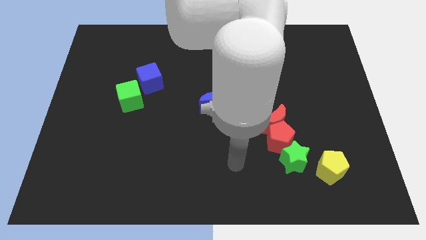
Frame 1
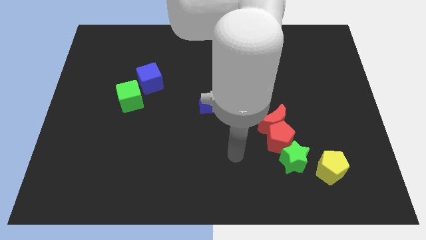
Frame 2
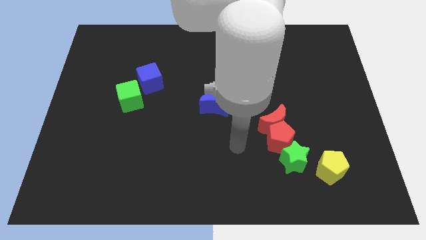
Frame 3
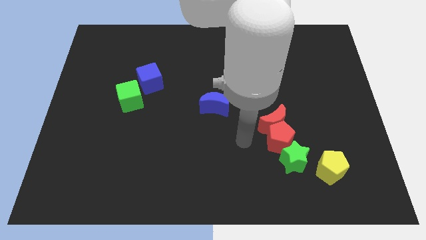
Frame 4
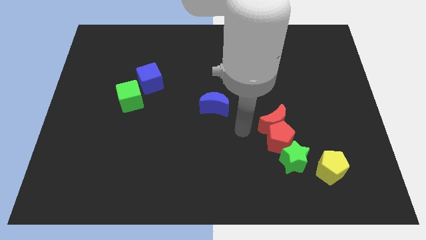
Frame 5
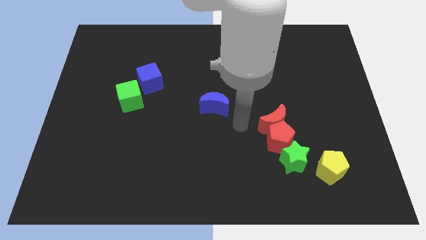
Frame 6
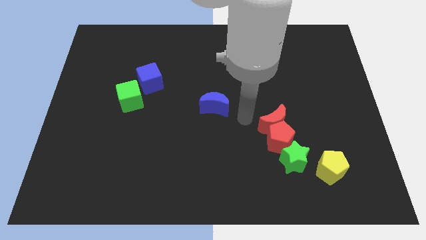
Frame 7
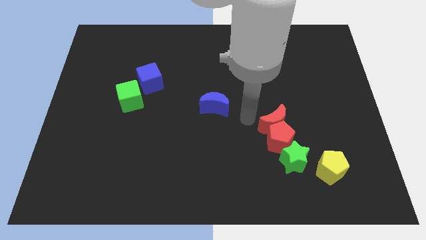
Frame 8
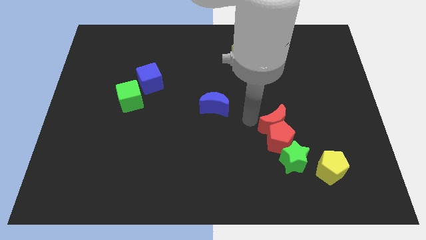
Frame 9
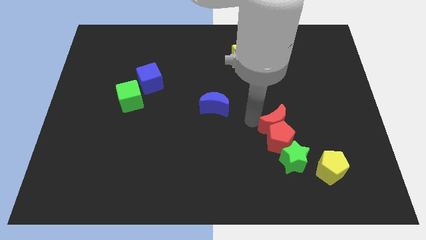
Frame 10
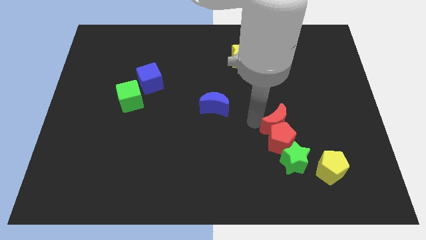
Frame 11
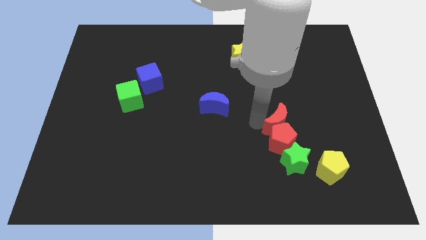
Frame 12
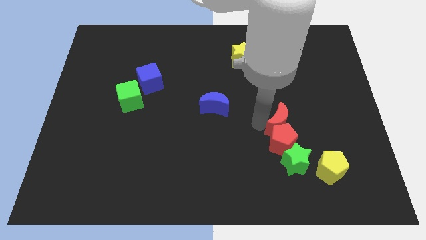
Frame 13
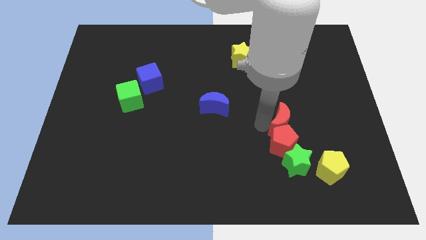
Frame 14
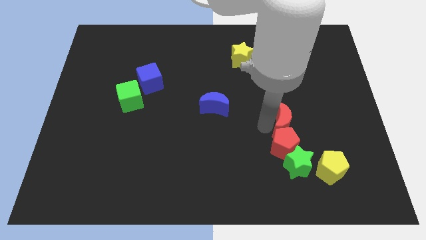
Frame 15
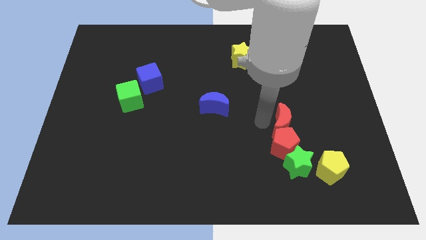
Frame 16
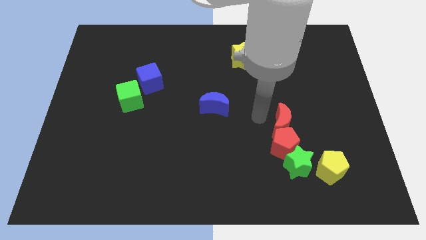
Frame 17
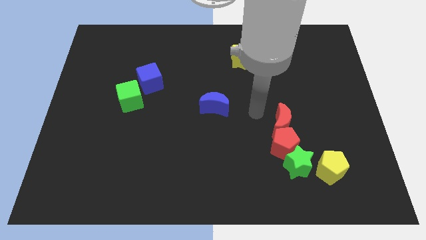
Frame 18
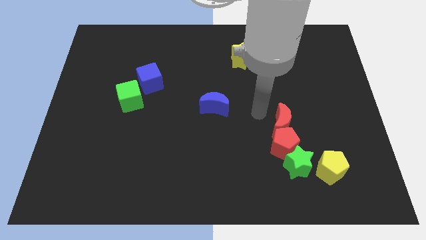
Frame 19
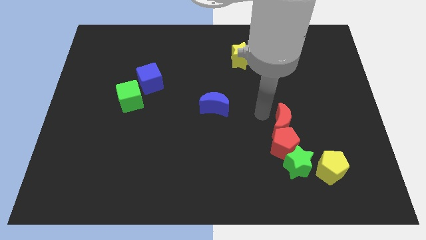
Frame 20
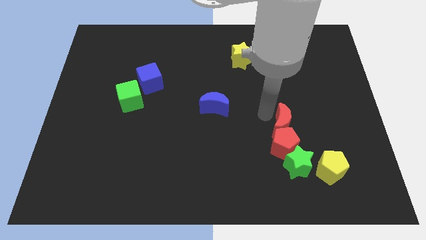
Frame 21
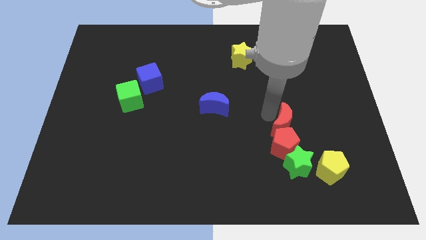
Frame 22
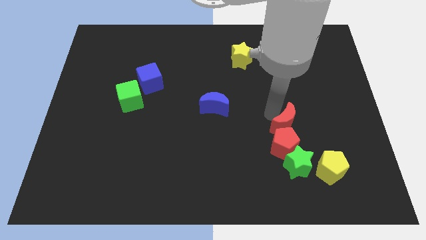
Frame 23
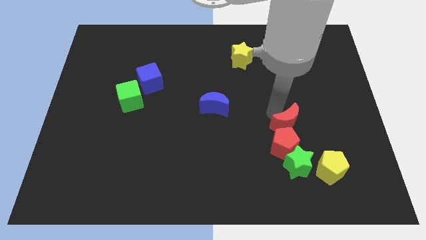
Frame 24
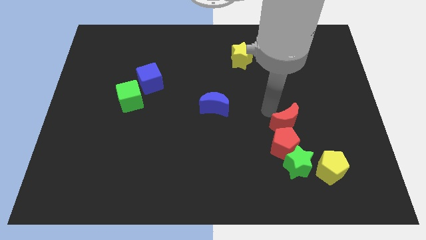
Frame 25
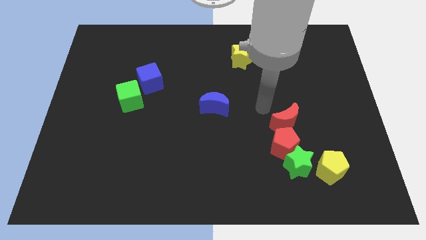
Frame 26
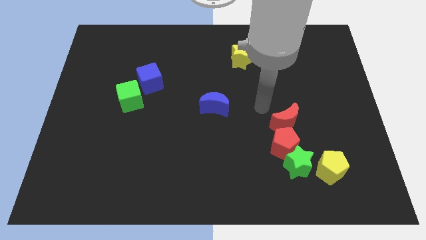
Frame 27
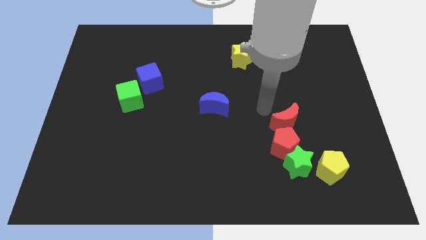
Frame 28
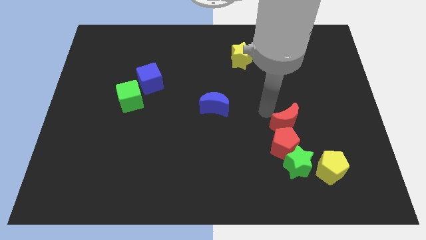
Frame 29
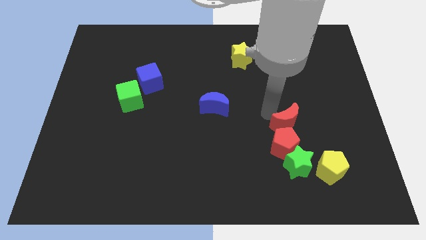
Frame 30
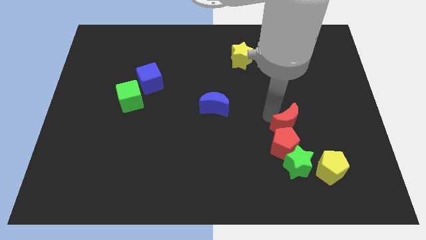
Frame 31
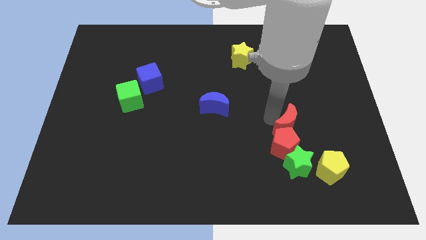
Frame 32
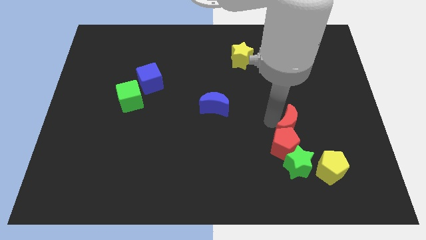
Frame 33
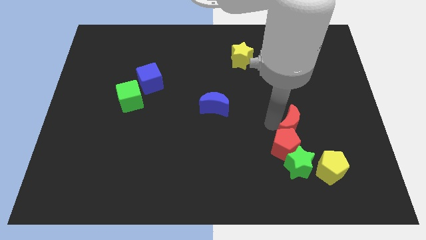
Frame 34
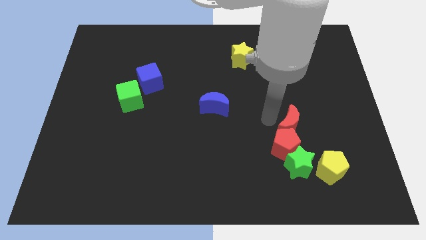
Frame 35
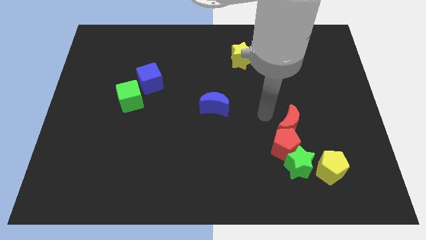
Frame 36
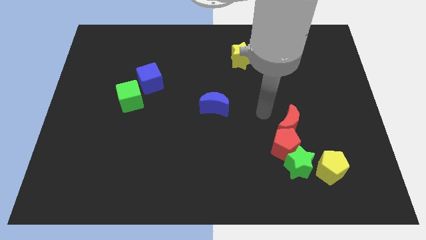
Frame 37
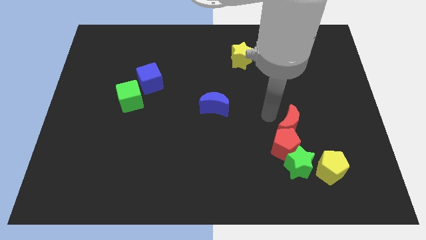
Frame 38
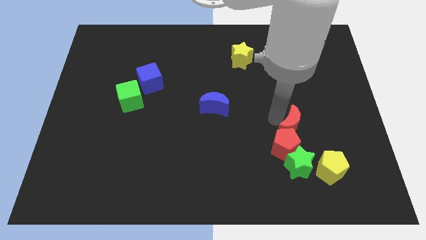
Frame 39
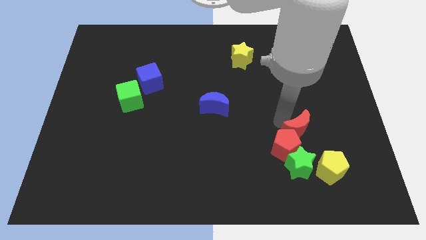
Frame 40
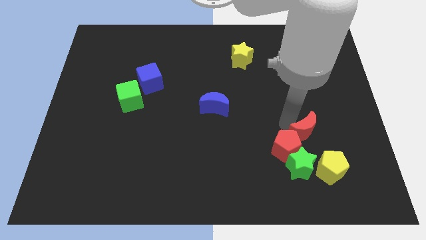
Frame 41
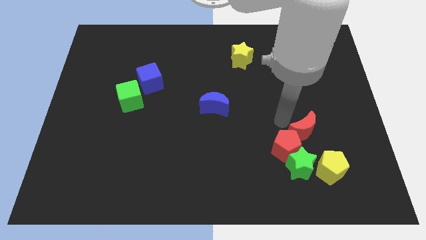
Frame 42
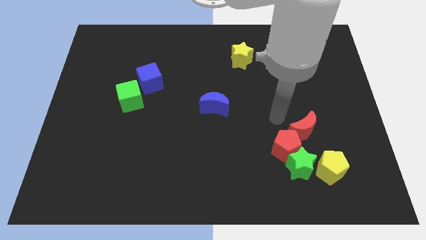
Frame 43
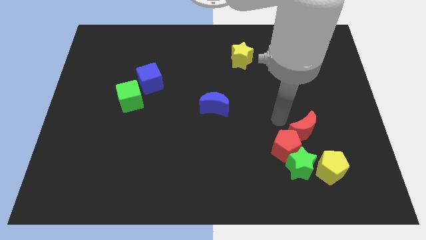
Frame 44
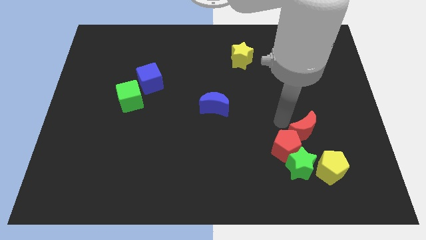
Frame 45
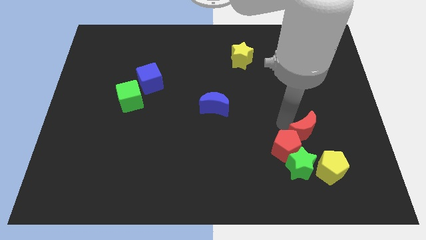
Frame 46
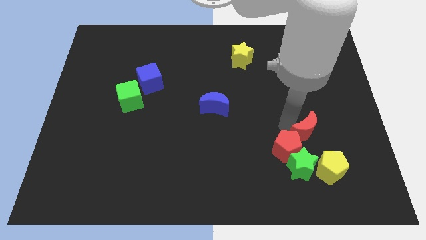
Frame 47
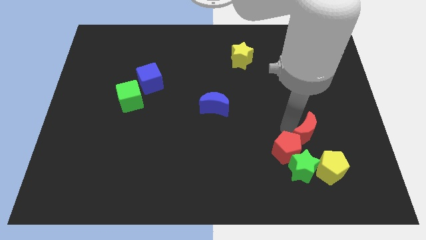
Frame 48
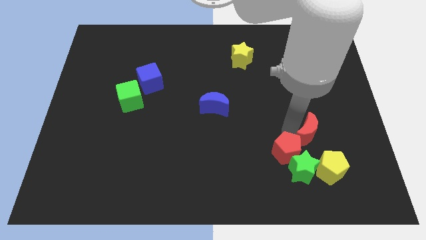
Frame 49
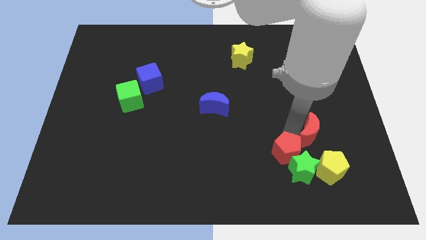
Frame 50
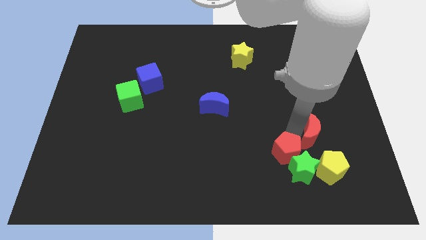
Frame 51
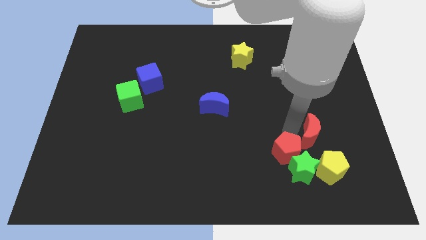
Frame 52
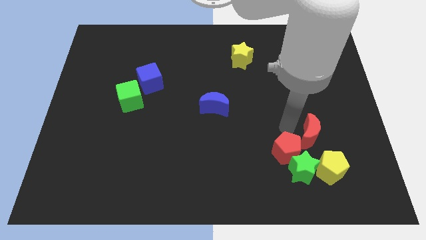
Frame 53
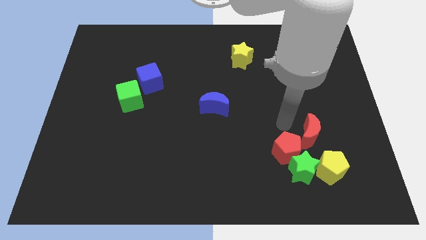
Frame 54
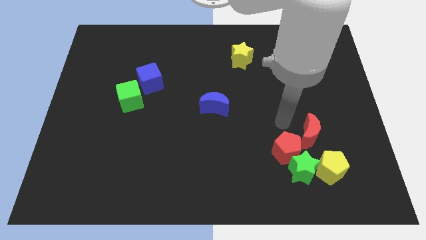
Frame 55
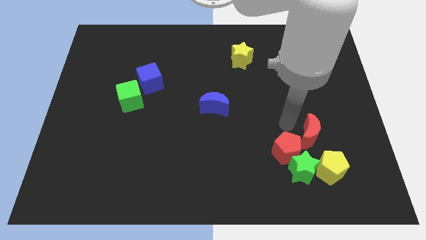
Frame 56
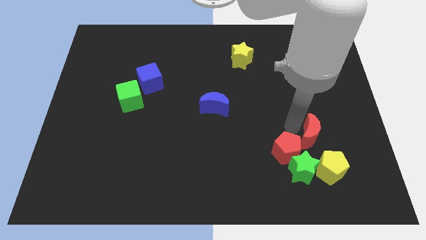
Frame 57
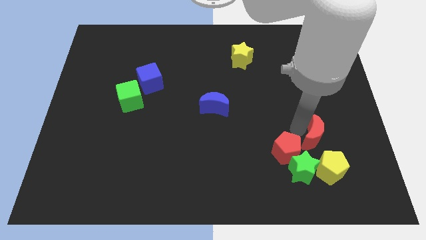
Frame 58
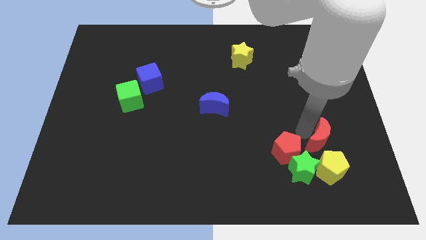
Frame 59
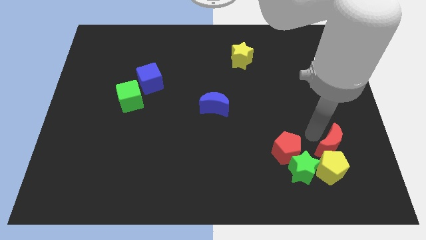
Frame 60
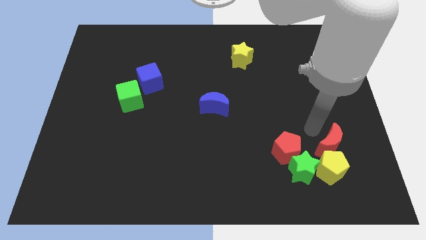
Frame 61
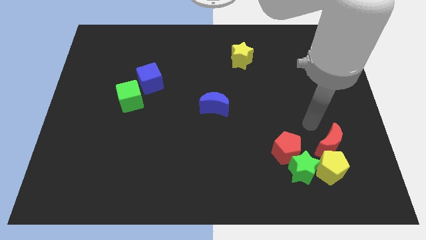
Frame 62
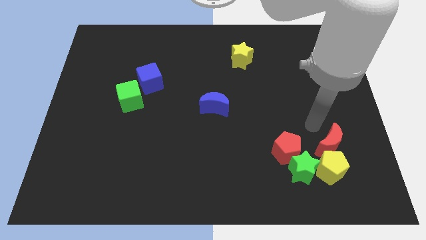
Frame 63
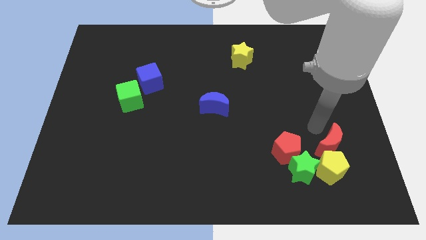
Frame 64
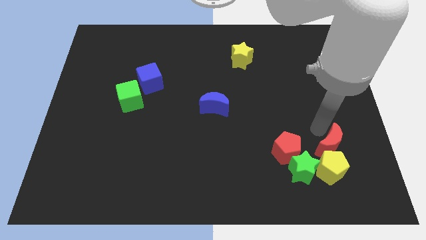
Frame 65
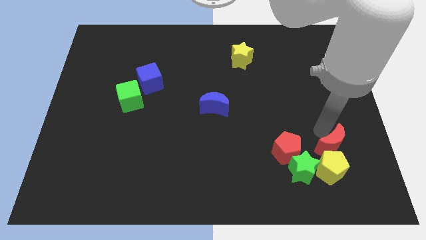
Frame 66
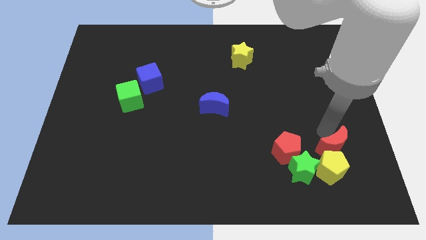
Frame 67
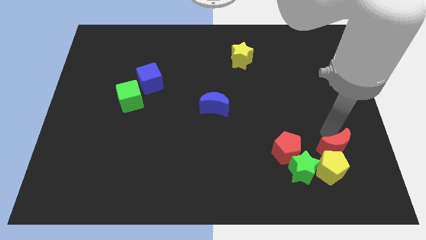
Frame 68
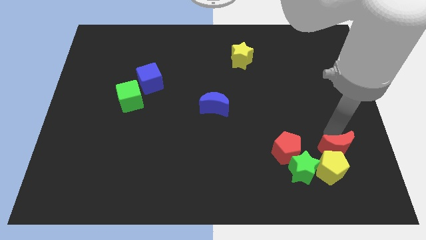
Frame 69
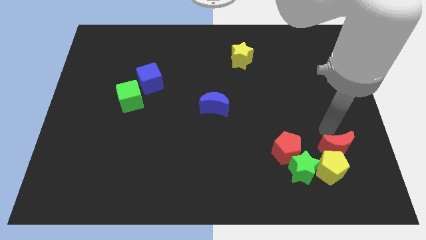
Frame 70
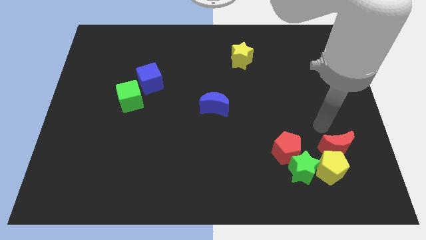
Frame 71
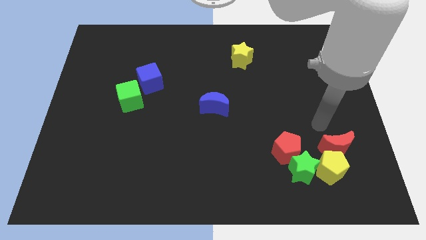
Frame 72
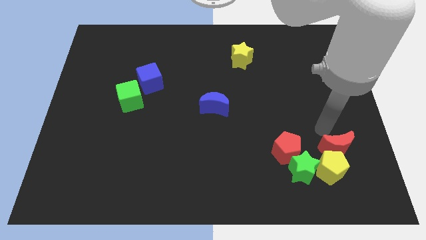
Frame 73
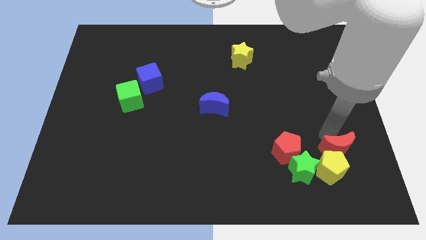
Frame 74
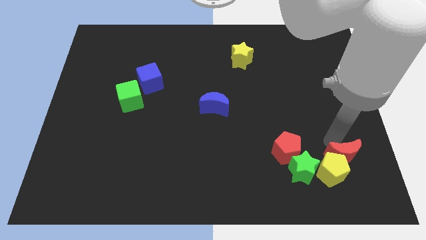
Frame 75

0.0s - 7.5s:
push the red moon to the right side of the green star

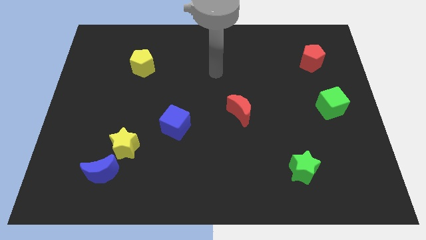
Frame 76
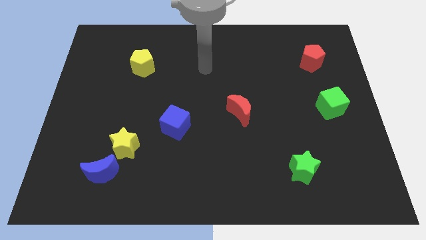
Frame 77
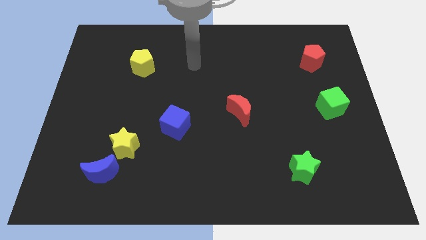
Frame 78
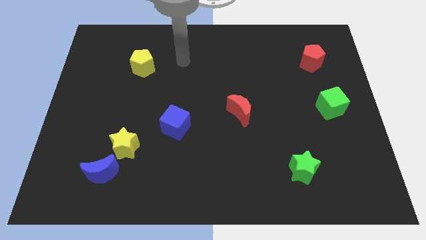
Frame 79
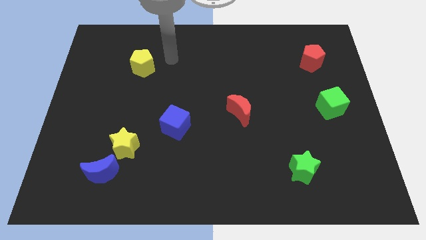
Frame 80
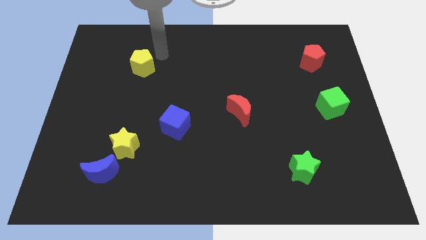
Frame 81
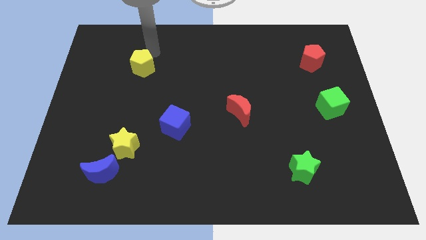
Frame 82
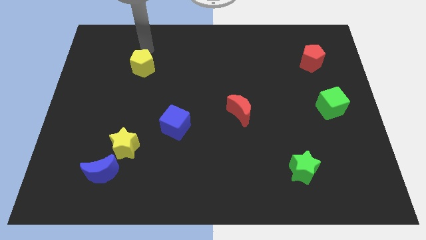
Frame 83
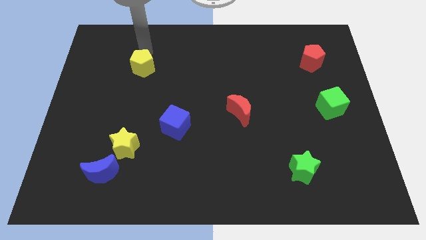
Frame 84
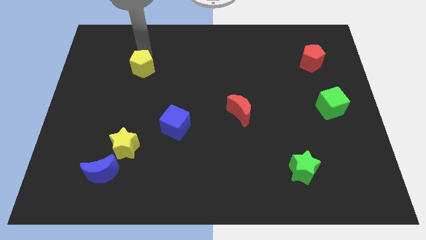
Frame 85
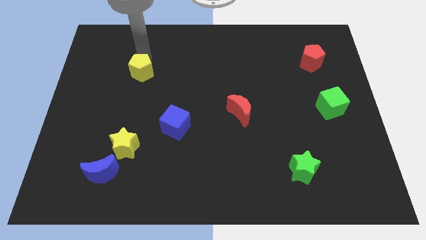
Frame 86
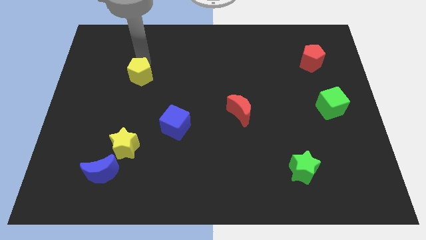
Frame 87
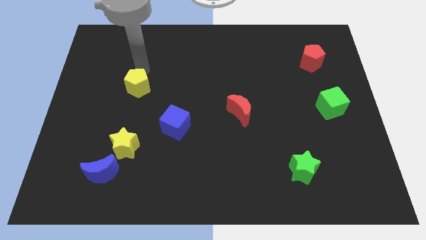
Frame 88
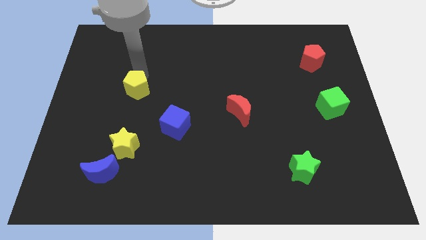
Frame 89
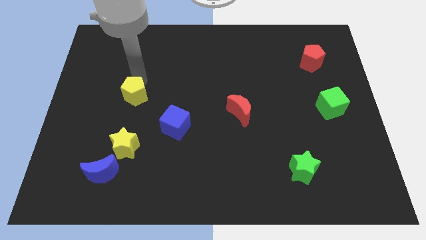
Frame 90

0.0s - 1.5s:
move the yellow pentagon to the top side of the yellow star
